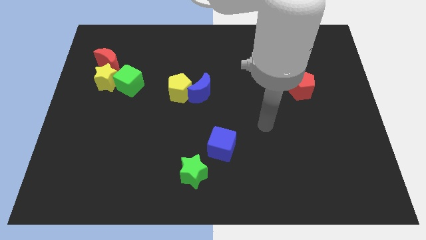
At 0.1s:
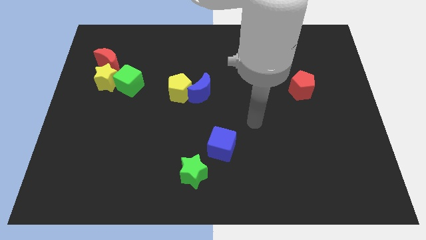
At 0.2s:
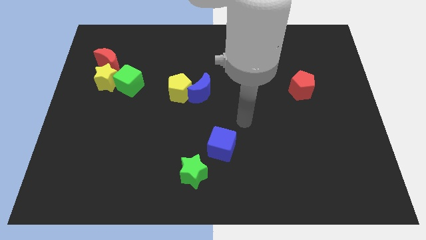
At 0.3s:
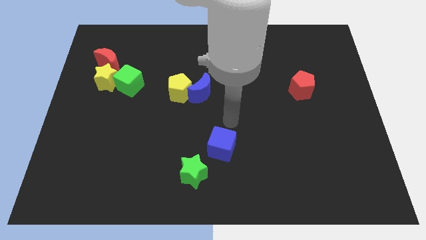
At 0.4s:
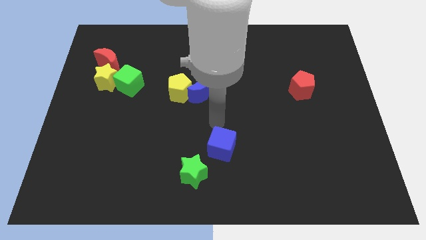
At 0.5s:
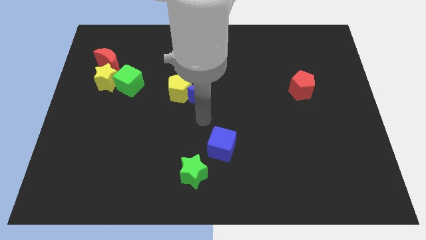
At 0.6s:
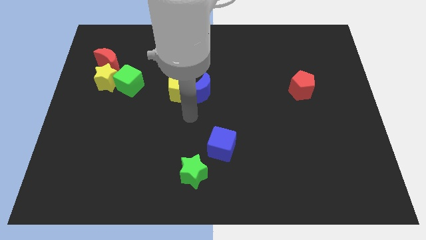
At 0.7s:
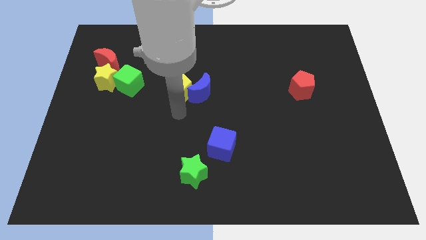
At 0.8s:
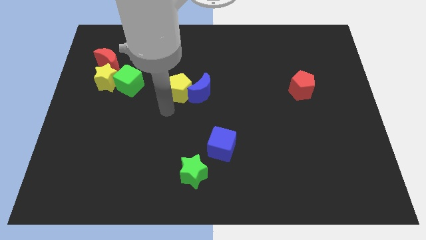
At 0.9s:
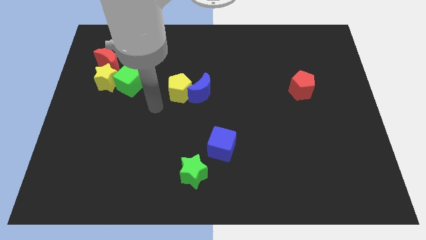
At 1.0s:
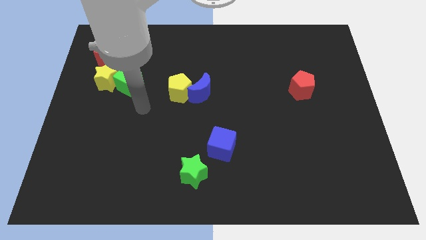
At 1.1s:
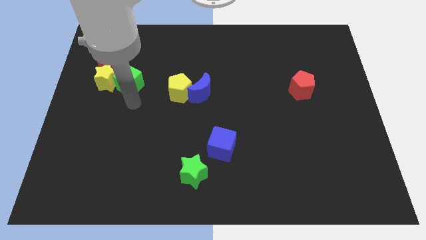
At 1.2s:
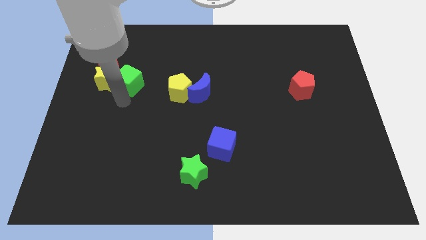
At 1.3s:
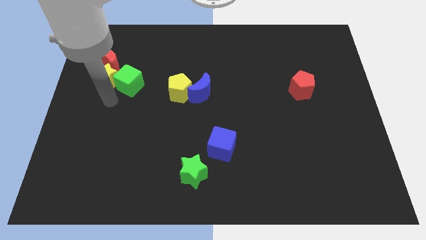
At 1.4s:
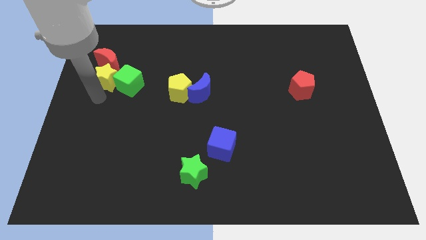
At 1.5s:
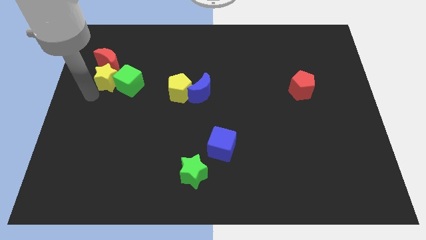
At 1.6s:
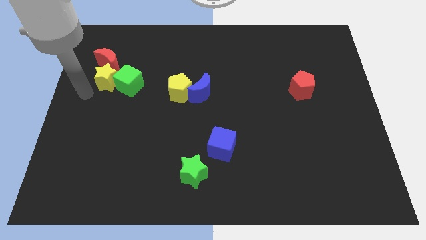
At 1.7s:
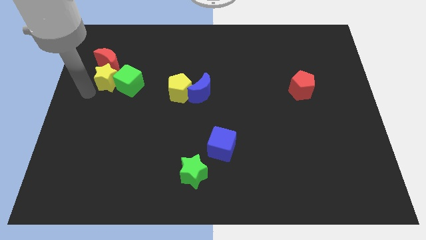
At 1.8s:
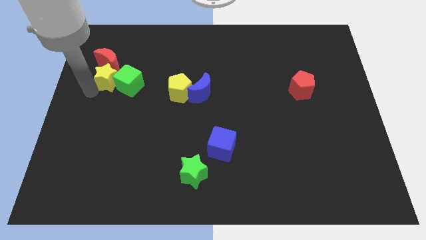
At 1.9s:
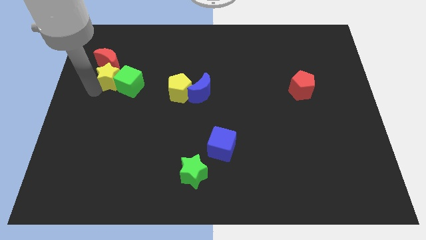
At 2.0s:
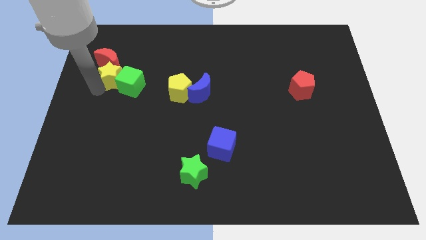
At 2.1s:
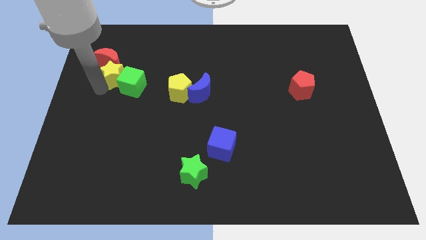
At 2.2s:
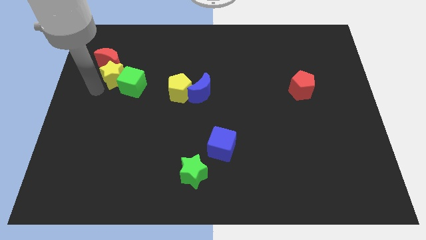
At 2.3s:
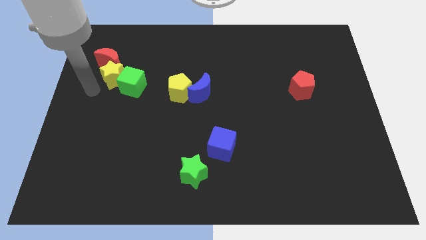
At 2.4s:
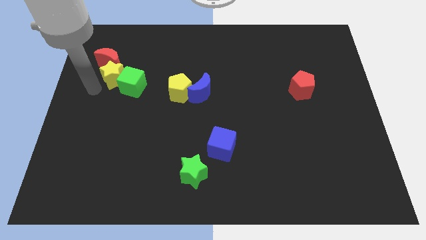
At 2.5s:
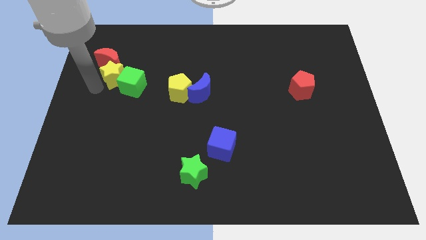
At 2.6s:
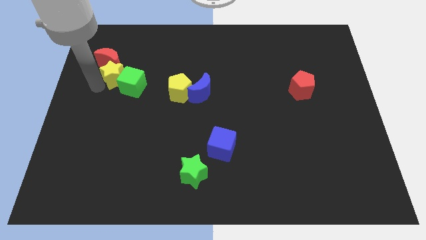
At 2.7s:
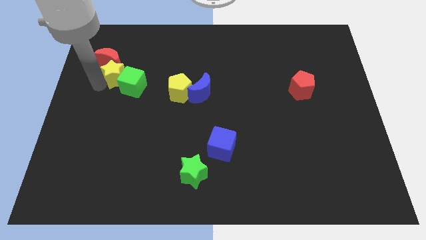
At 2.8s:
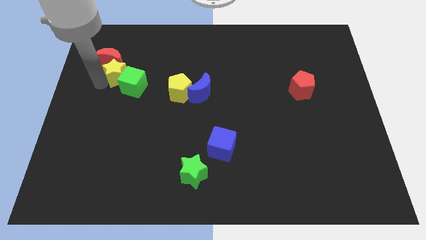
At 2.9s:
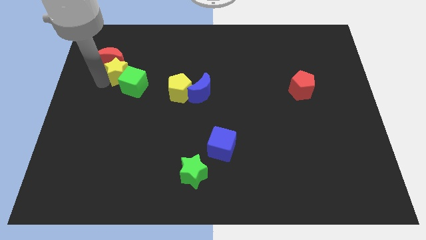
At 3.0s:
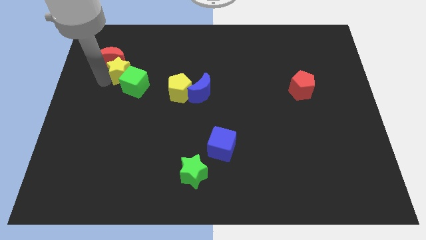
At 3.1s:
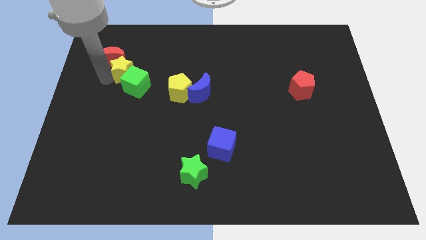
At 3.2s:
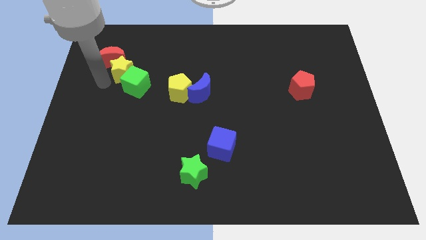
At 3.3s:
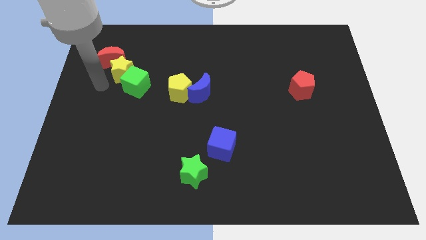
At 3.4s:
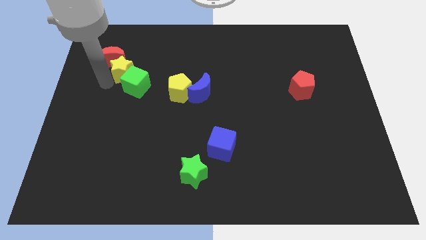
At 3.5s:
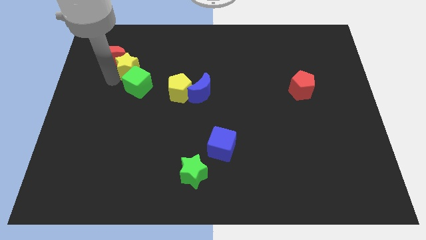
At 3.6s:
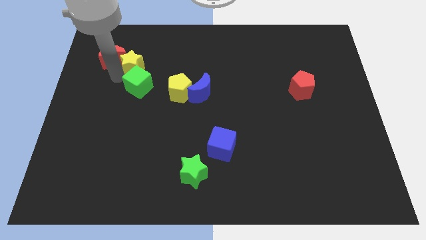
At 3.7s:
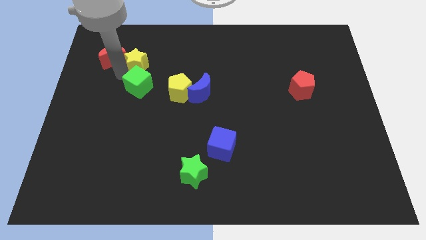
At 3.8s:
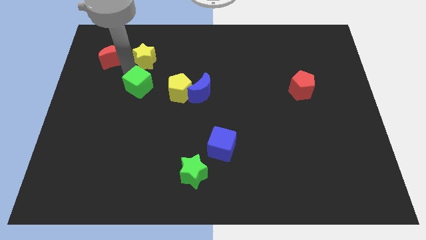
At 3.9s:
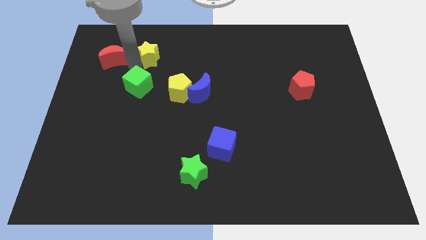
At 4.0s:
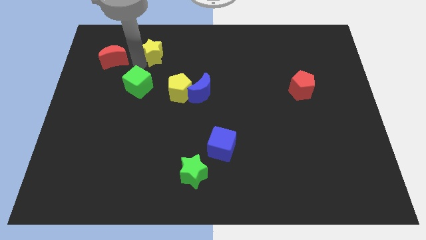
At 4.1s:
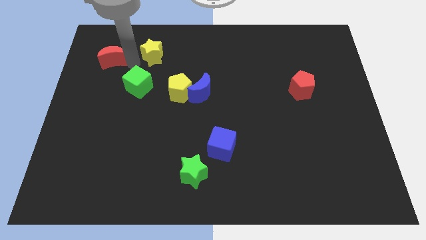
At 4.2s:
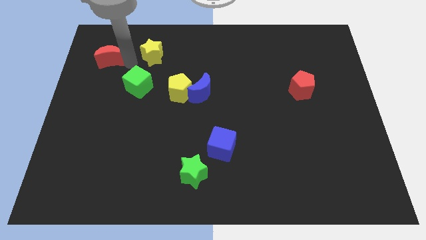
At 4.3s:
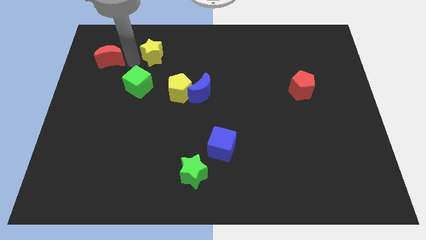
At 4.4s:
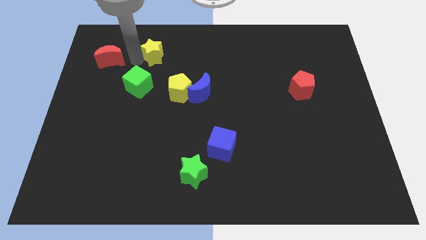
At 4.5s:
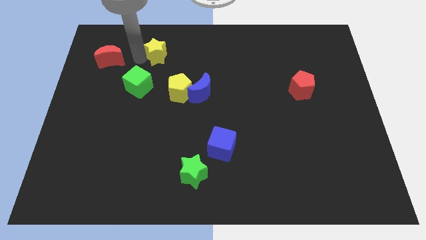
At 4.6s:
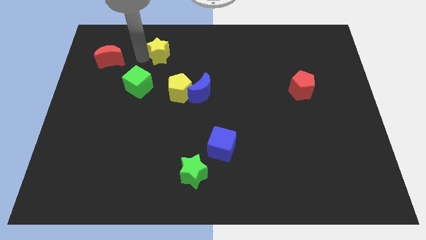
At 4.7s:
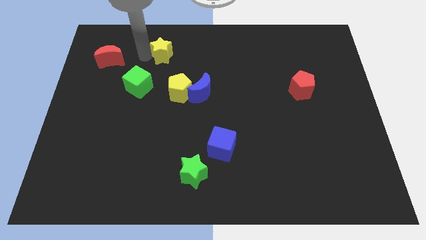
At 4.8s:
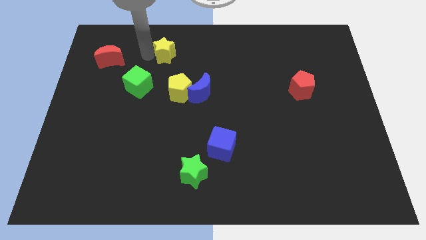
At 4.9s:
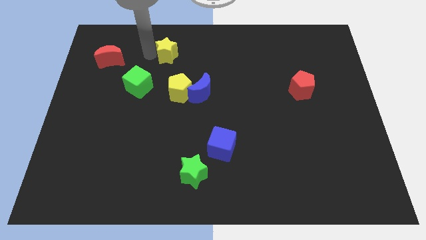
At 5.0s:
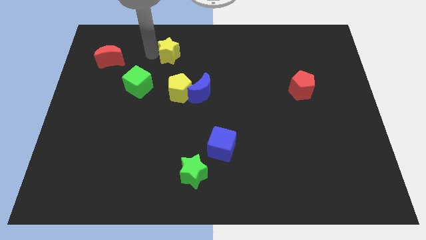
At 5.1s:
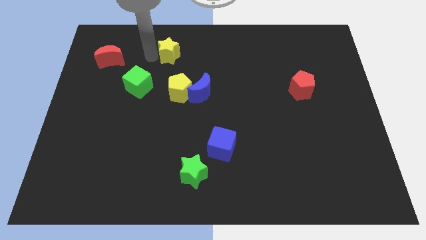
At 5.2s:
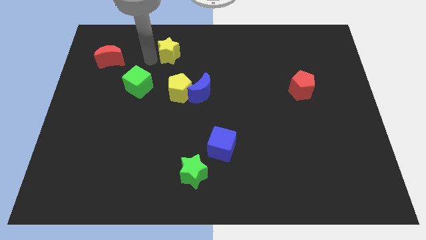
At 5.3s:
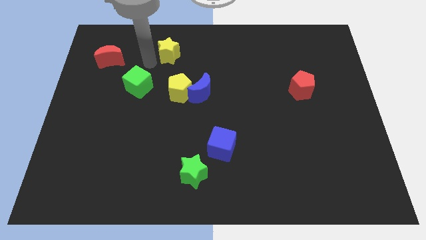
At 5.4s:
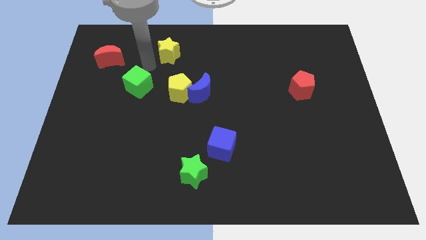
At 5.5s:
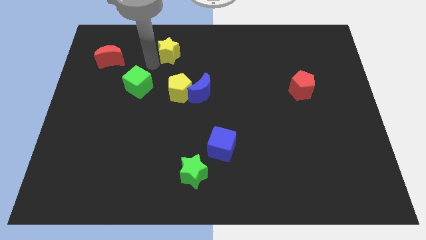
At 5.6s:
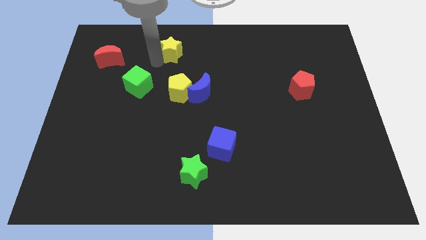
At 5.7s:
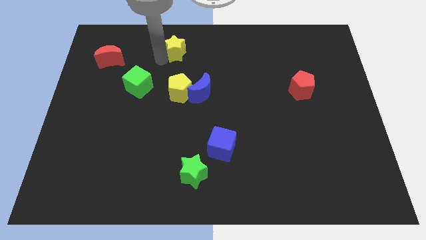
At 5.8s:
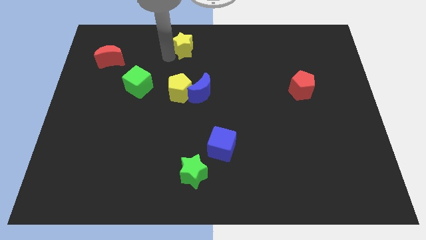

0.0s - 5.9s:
push the yellow star to the towards your base
